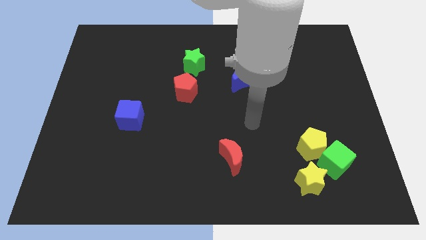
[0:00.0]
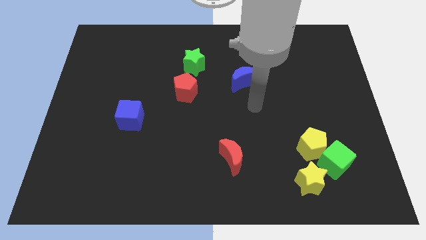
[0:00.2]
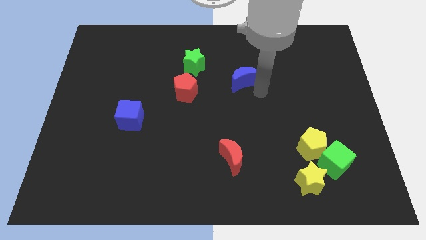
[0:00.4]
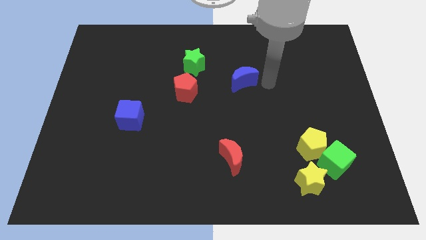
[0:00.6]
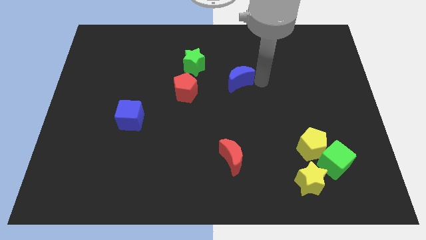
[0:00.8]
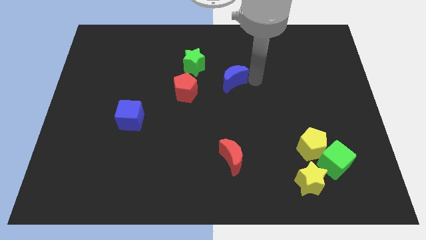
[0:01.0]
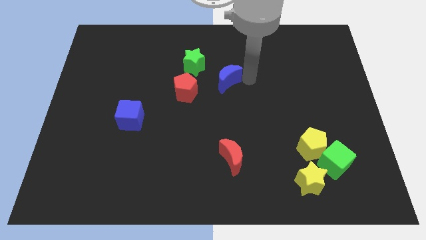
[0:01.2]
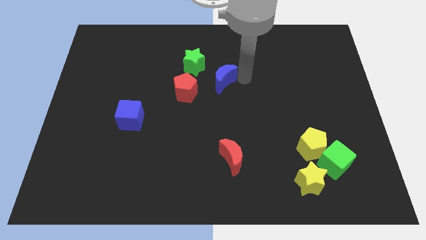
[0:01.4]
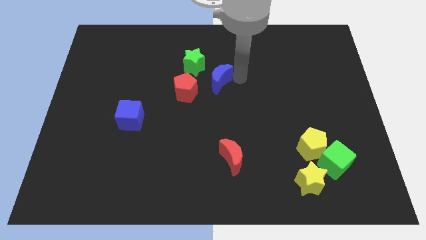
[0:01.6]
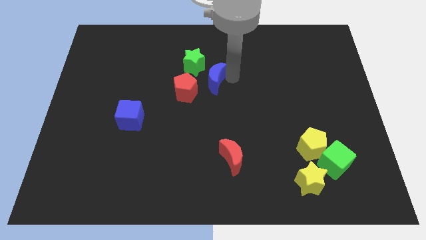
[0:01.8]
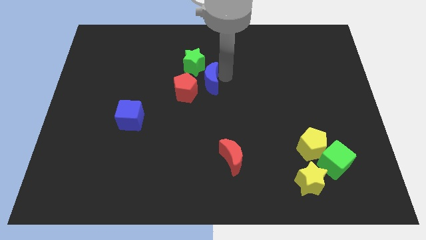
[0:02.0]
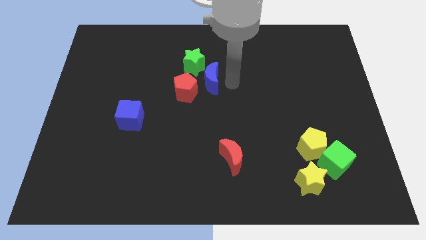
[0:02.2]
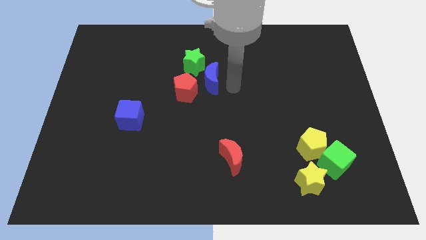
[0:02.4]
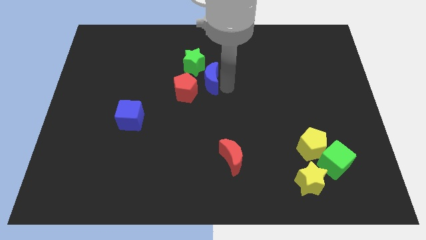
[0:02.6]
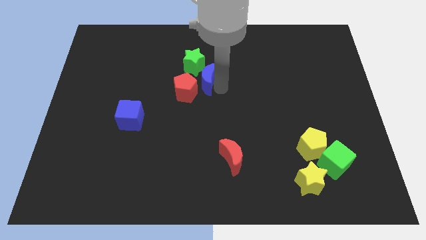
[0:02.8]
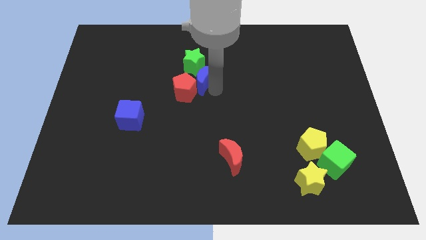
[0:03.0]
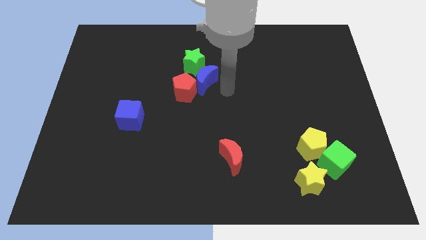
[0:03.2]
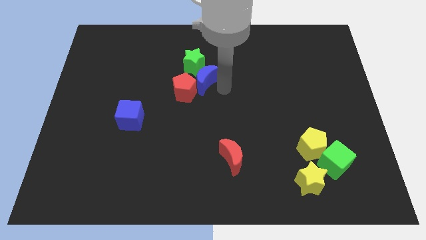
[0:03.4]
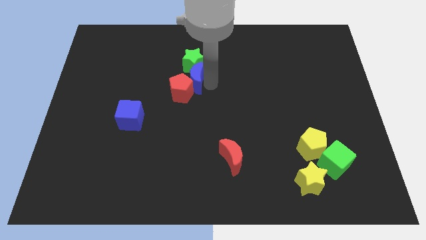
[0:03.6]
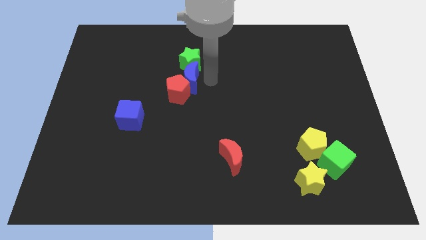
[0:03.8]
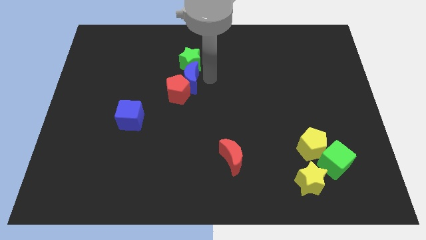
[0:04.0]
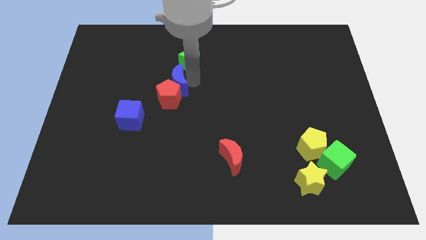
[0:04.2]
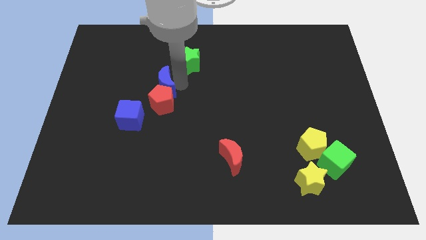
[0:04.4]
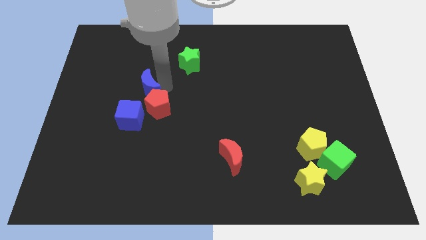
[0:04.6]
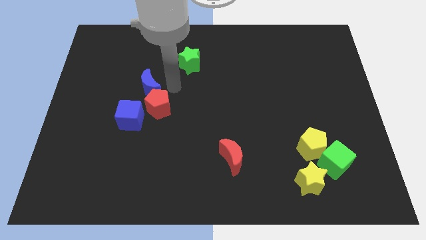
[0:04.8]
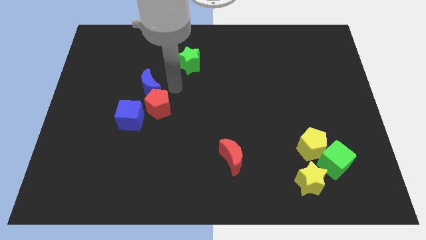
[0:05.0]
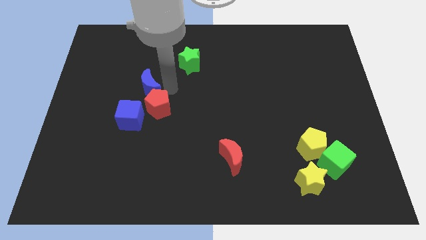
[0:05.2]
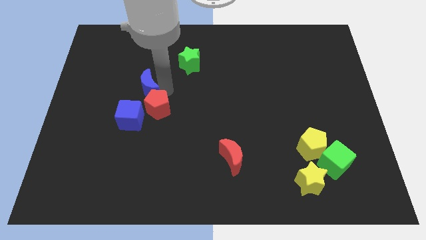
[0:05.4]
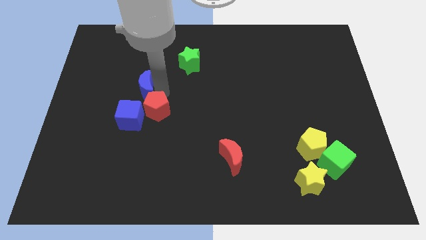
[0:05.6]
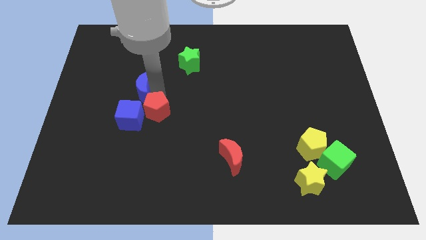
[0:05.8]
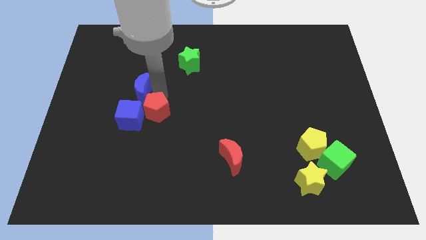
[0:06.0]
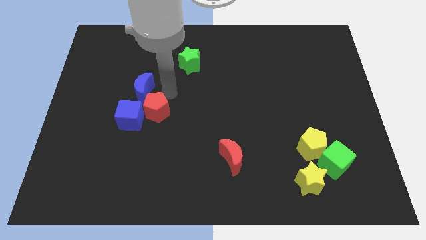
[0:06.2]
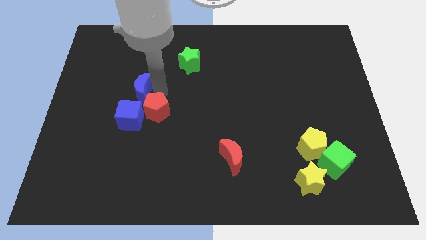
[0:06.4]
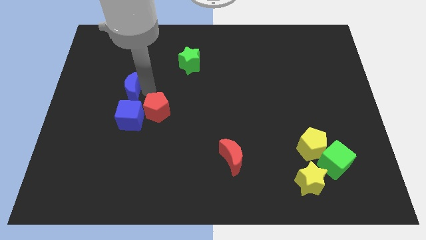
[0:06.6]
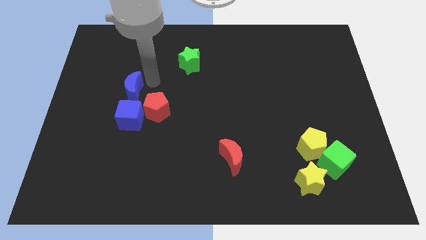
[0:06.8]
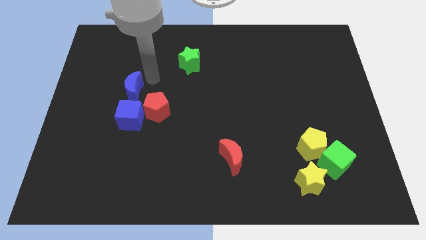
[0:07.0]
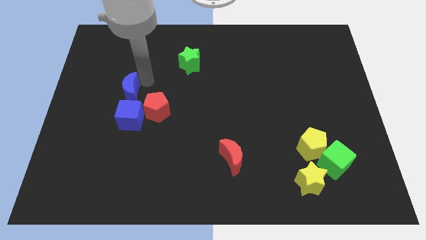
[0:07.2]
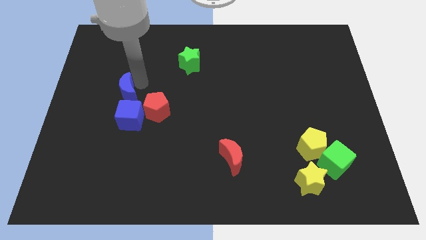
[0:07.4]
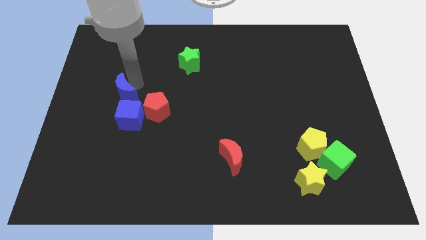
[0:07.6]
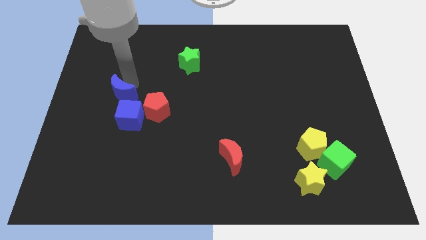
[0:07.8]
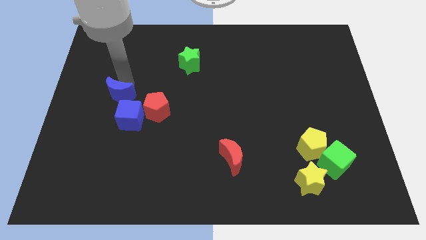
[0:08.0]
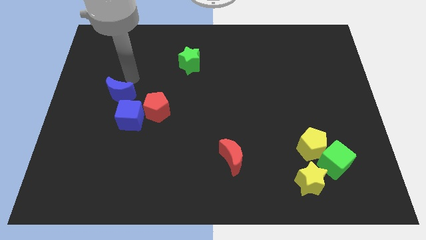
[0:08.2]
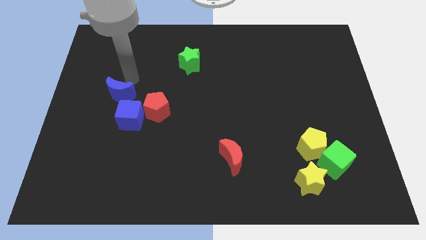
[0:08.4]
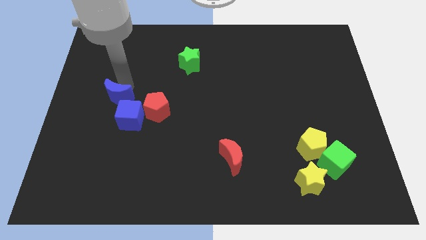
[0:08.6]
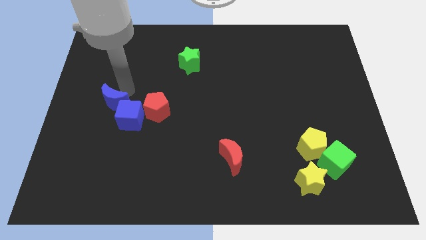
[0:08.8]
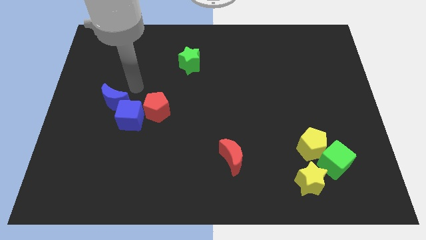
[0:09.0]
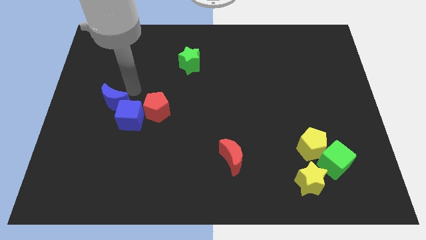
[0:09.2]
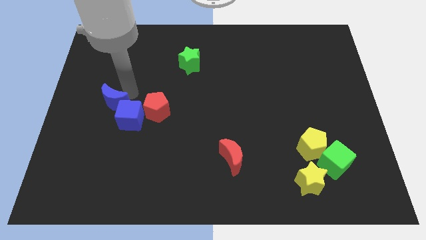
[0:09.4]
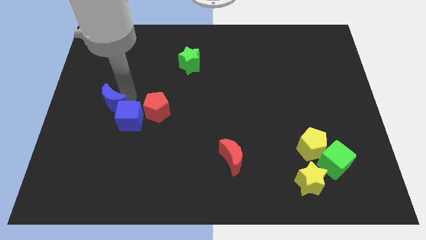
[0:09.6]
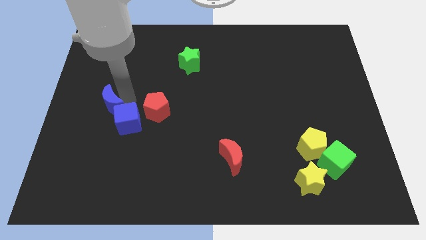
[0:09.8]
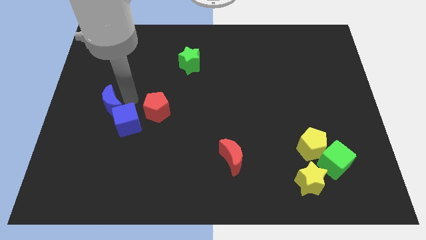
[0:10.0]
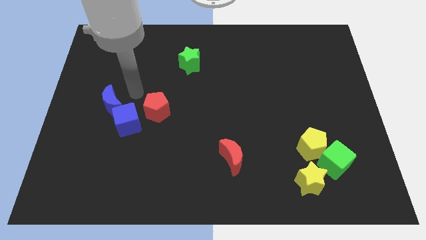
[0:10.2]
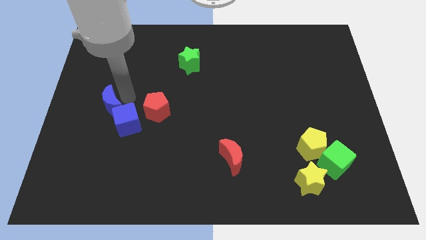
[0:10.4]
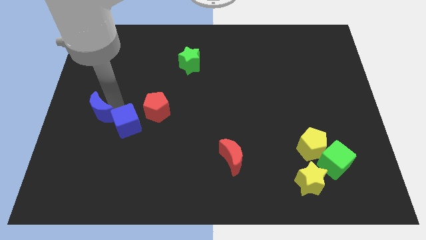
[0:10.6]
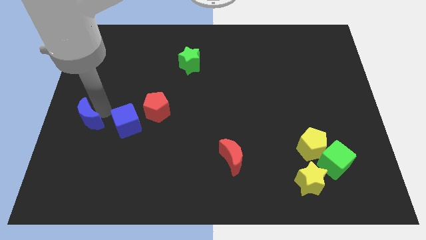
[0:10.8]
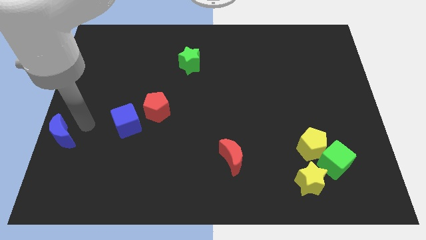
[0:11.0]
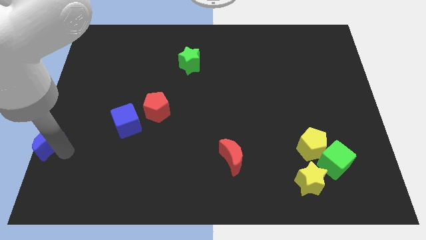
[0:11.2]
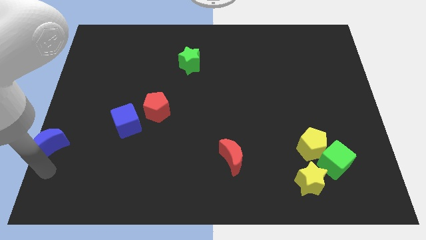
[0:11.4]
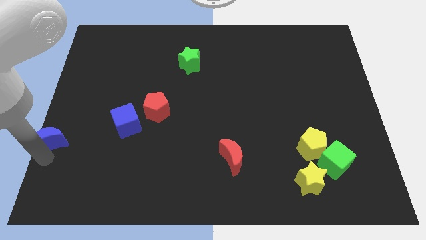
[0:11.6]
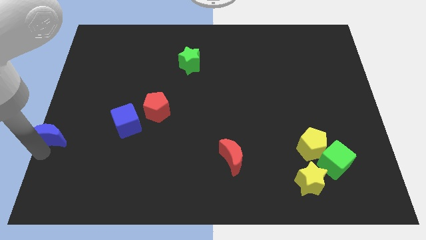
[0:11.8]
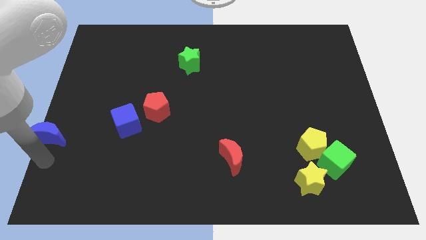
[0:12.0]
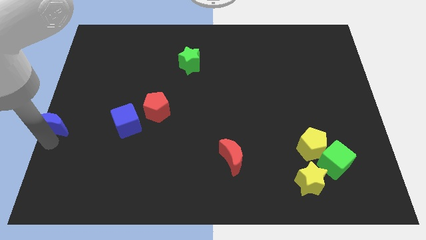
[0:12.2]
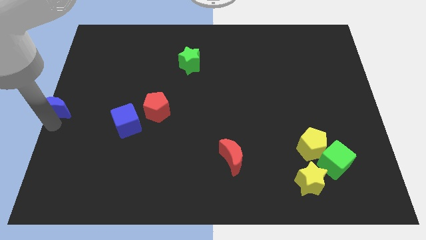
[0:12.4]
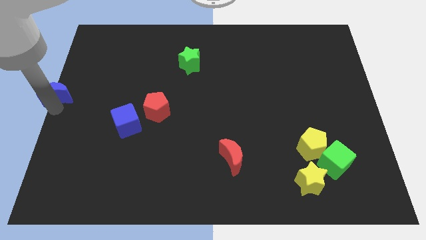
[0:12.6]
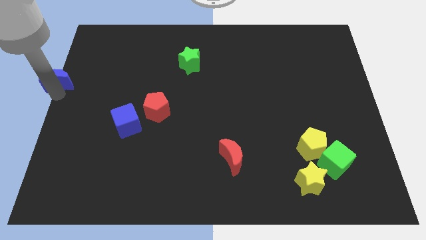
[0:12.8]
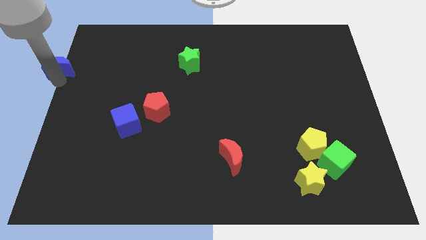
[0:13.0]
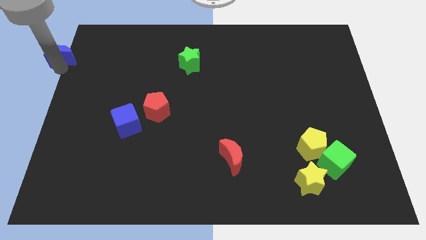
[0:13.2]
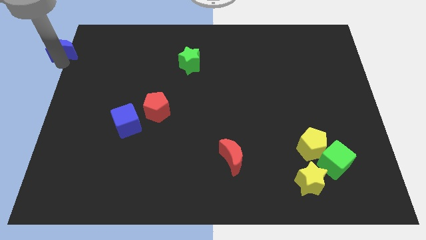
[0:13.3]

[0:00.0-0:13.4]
put the blue moon to the top left

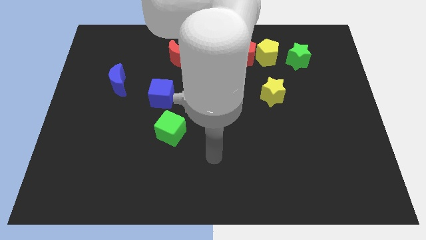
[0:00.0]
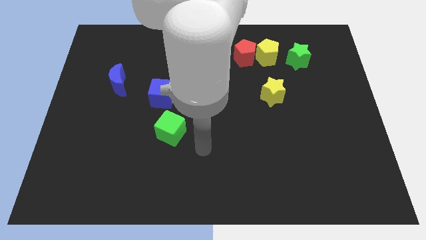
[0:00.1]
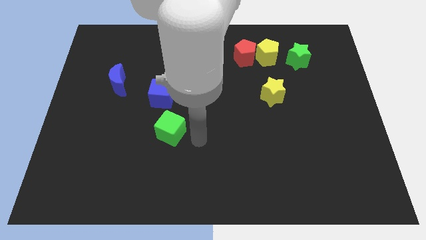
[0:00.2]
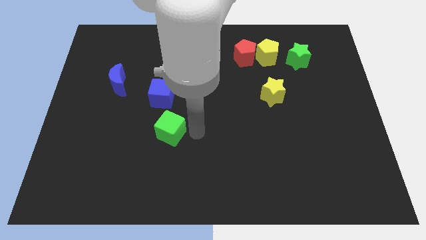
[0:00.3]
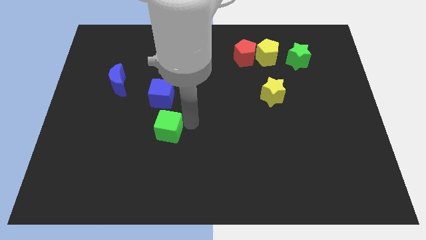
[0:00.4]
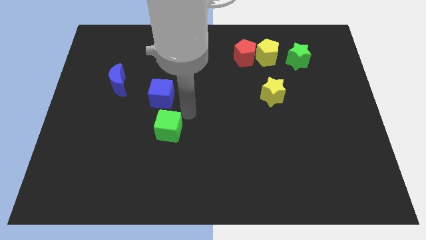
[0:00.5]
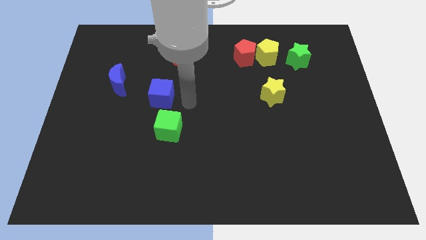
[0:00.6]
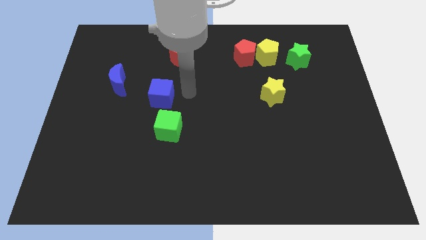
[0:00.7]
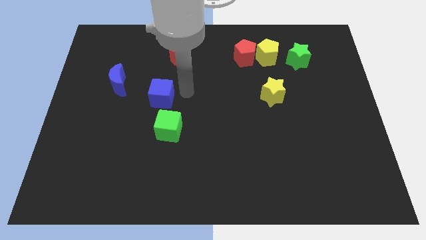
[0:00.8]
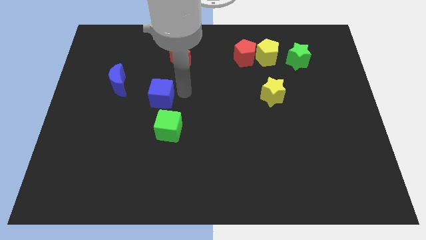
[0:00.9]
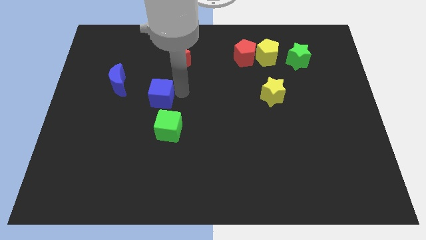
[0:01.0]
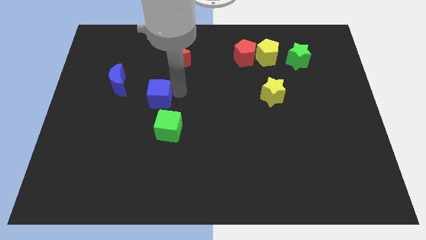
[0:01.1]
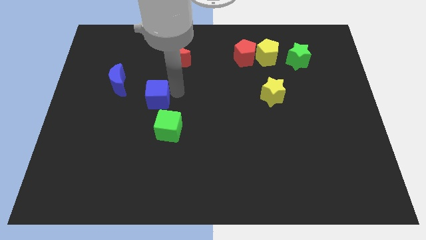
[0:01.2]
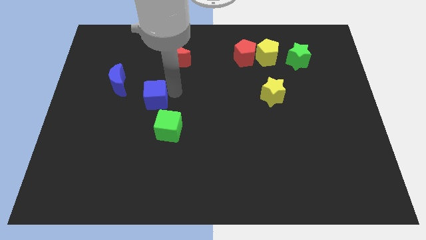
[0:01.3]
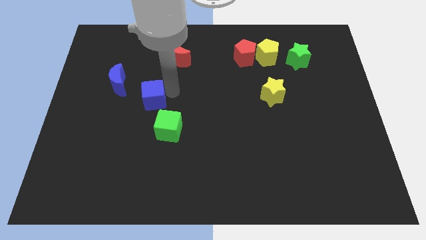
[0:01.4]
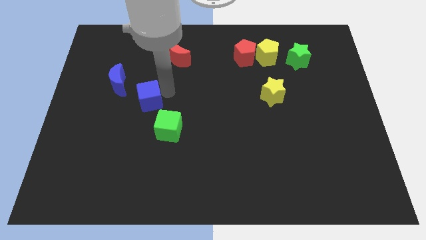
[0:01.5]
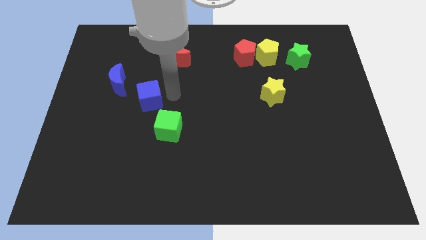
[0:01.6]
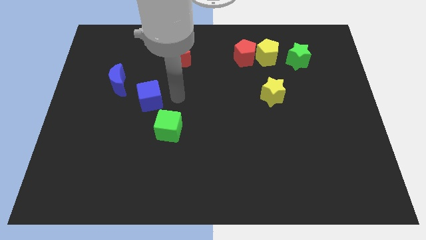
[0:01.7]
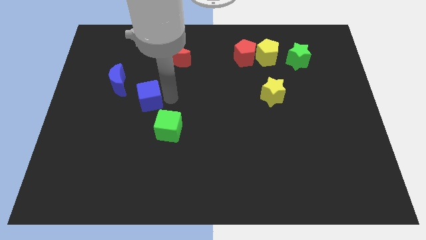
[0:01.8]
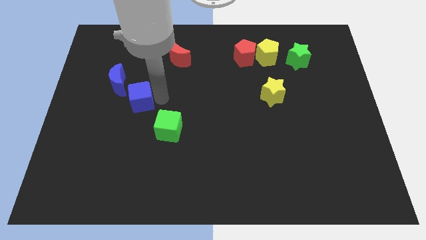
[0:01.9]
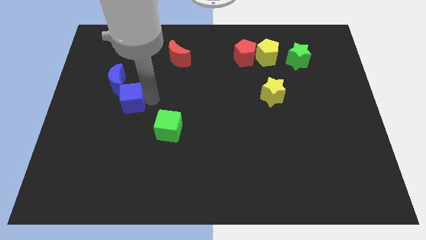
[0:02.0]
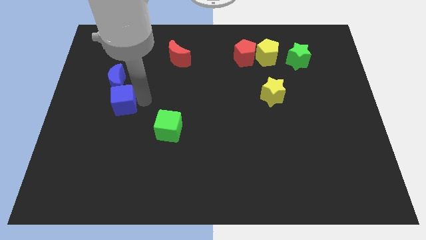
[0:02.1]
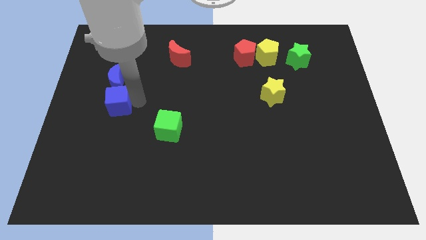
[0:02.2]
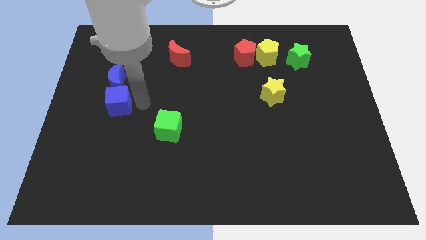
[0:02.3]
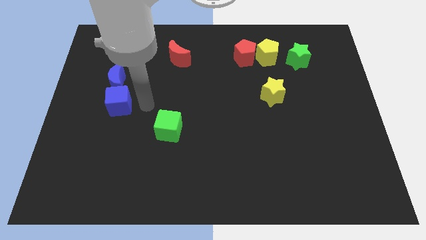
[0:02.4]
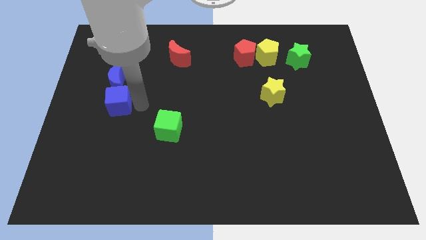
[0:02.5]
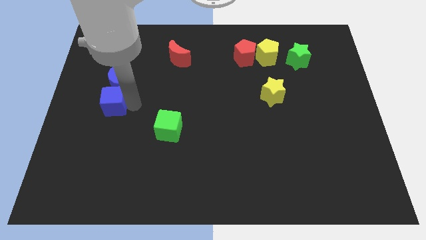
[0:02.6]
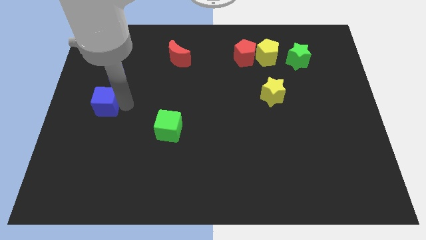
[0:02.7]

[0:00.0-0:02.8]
slide the blue cube to the center left
